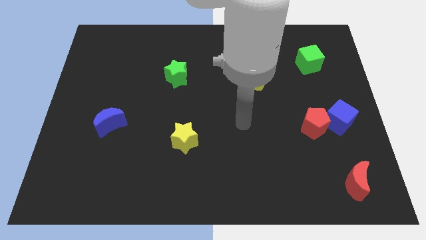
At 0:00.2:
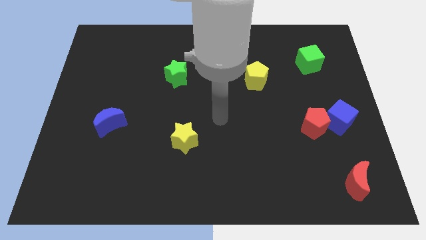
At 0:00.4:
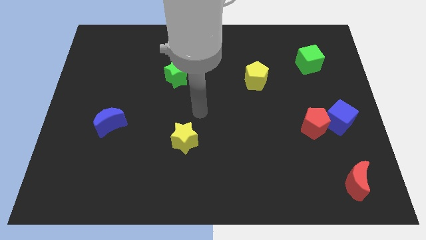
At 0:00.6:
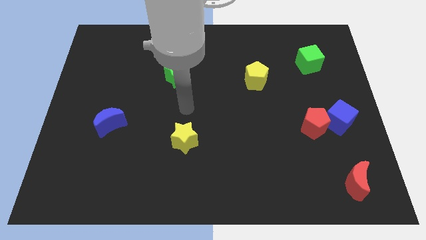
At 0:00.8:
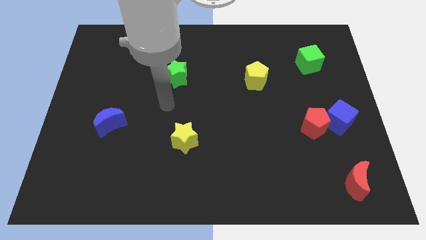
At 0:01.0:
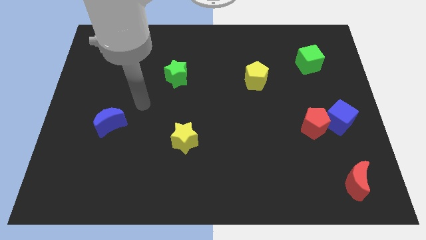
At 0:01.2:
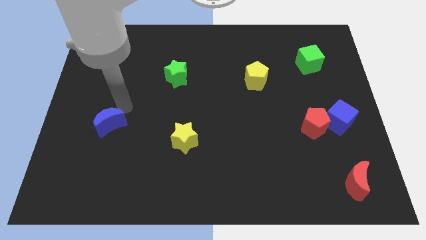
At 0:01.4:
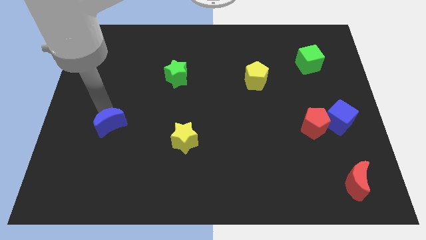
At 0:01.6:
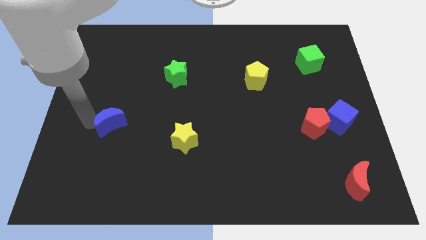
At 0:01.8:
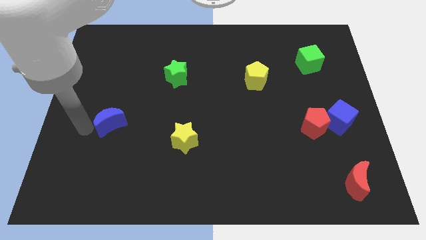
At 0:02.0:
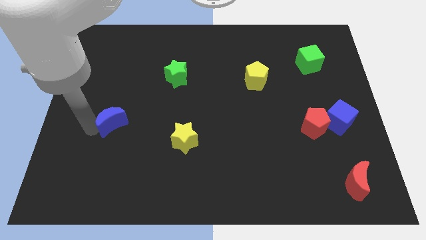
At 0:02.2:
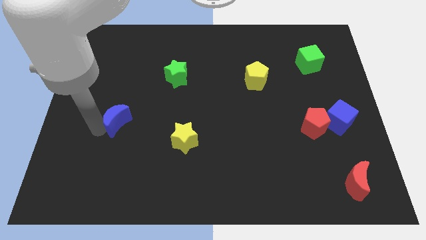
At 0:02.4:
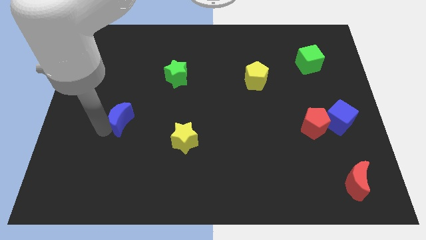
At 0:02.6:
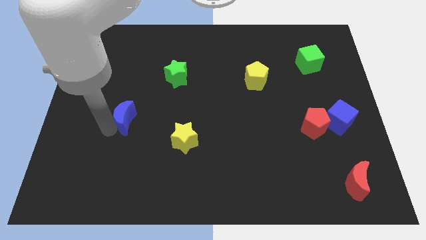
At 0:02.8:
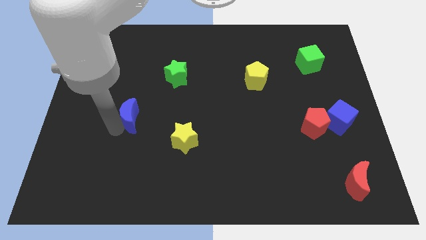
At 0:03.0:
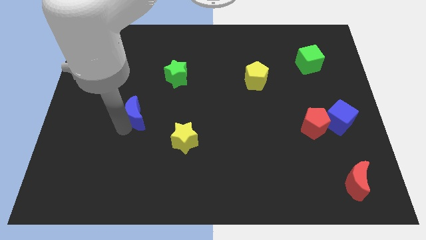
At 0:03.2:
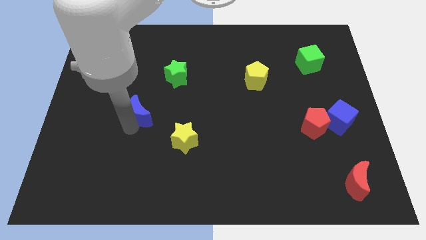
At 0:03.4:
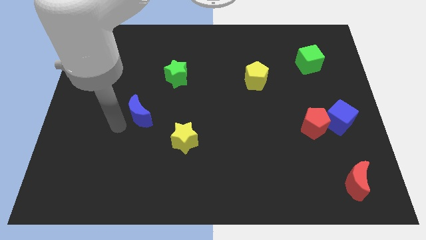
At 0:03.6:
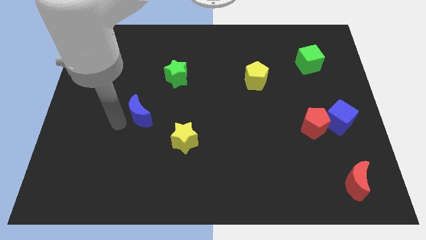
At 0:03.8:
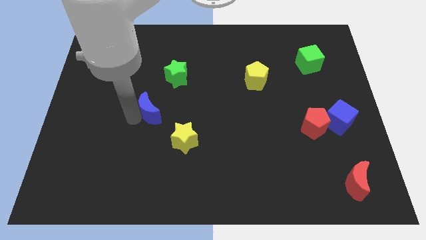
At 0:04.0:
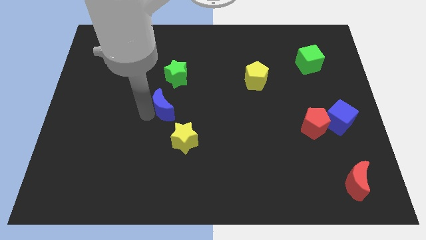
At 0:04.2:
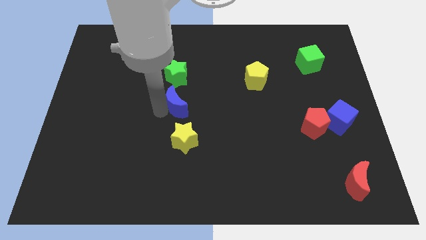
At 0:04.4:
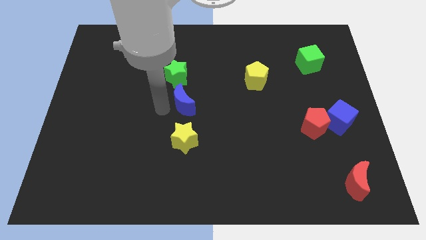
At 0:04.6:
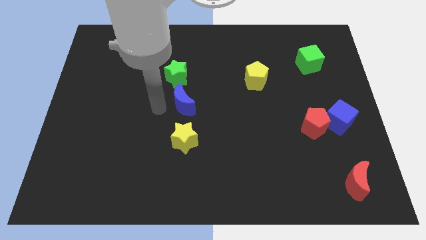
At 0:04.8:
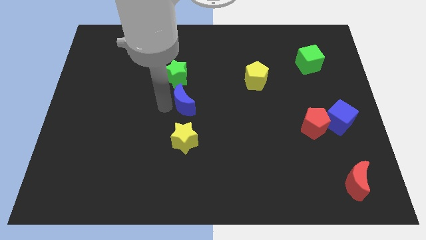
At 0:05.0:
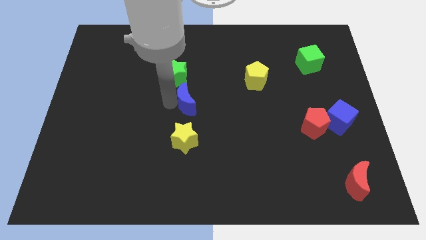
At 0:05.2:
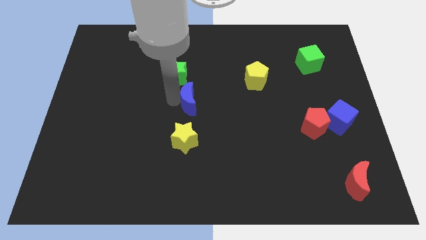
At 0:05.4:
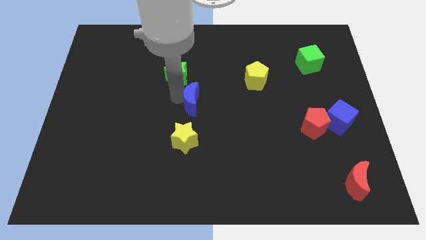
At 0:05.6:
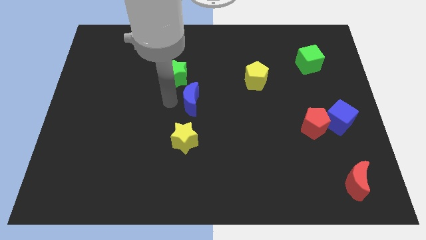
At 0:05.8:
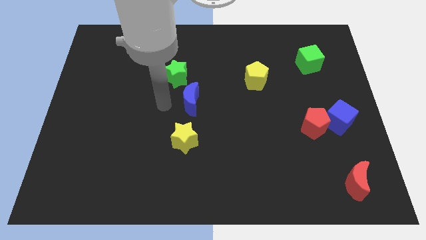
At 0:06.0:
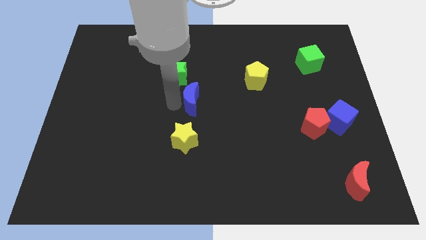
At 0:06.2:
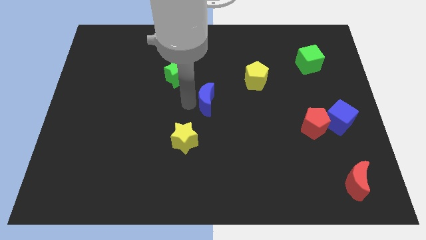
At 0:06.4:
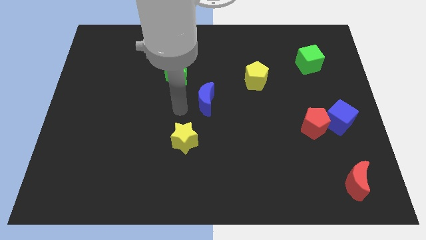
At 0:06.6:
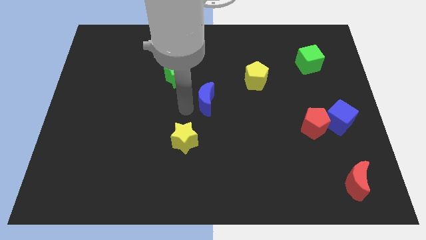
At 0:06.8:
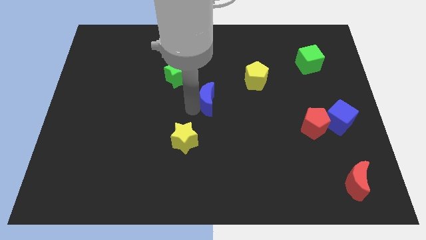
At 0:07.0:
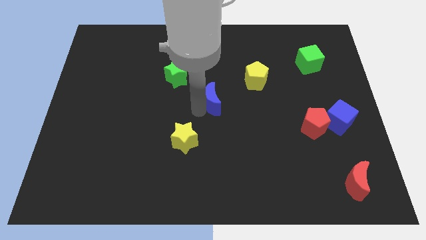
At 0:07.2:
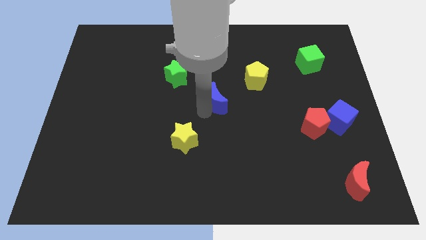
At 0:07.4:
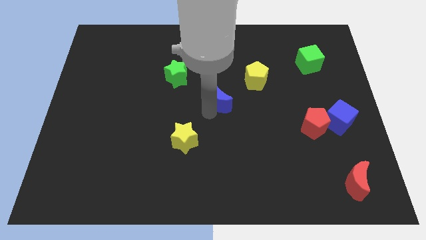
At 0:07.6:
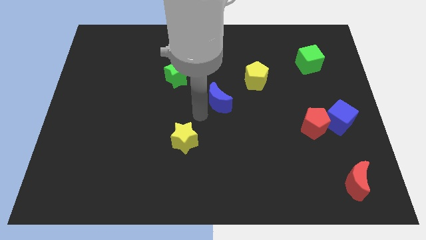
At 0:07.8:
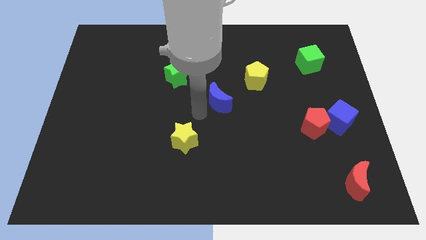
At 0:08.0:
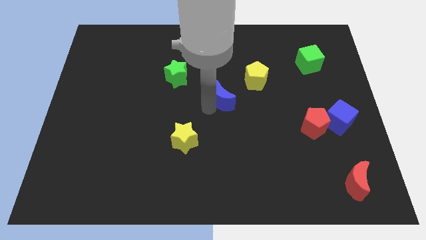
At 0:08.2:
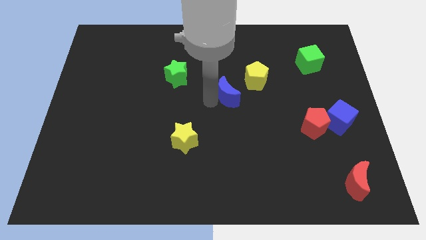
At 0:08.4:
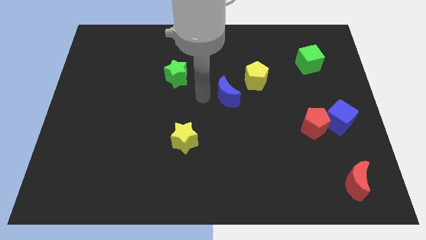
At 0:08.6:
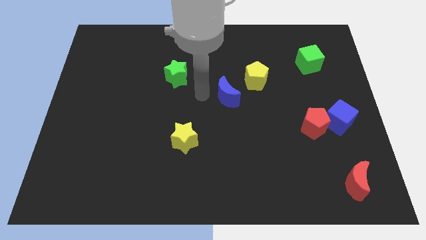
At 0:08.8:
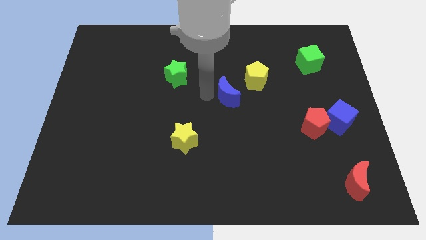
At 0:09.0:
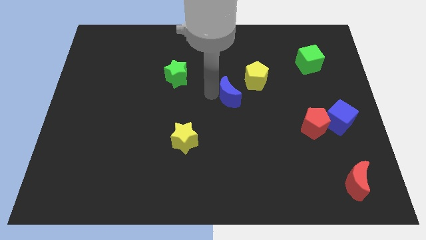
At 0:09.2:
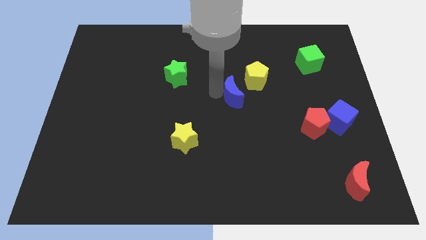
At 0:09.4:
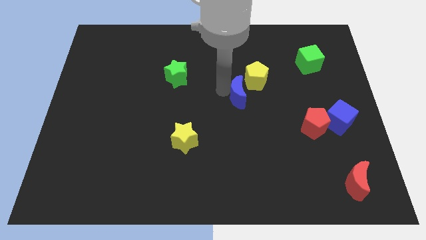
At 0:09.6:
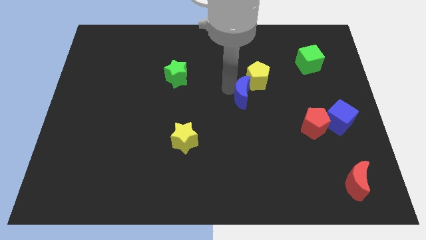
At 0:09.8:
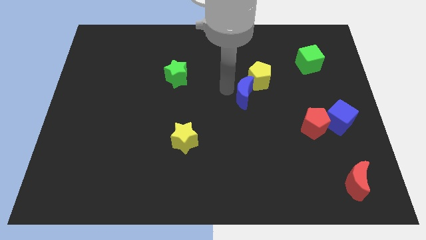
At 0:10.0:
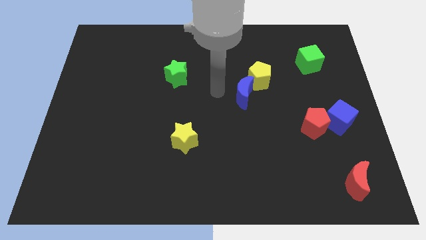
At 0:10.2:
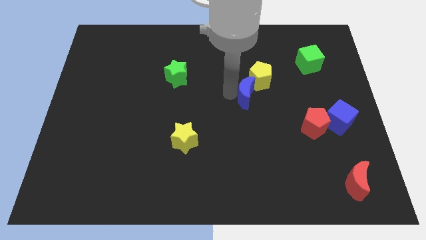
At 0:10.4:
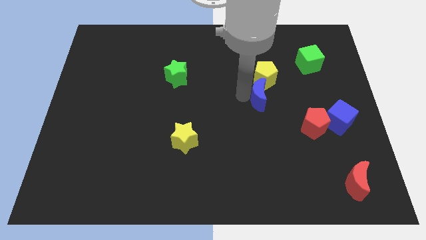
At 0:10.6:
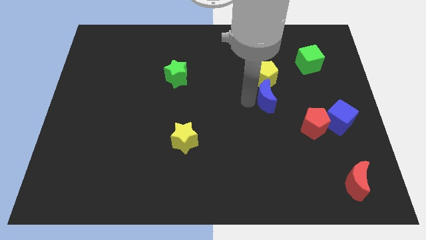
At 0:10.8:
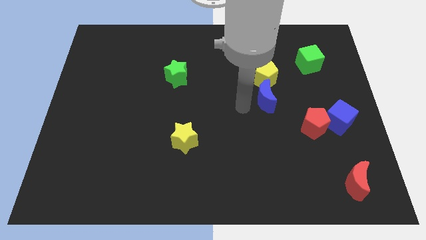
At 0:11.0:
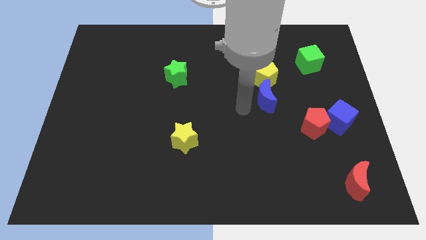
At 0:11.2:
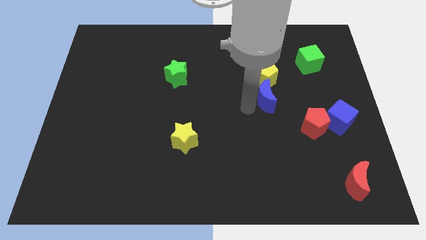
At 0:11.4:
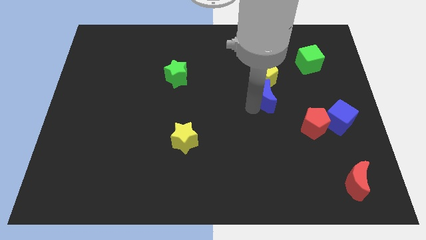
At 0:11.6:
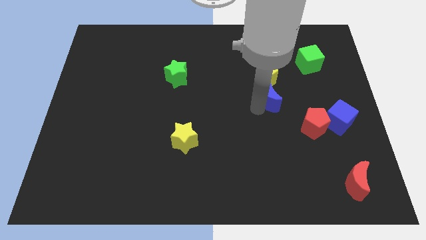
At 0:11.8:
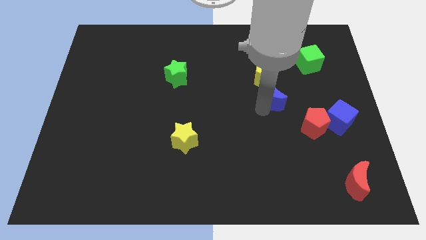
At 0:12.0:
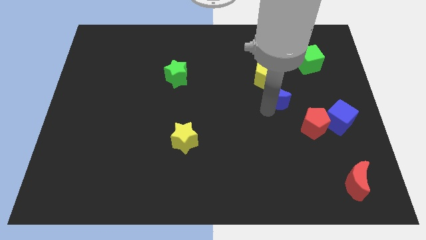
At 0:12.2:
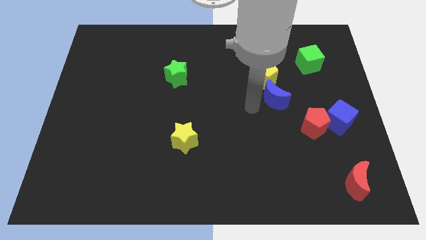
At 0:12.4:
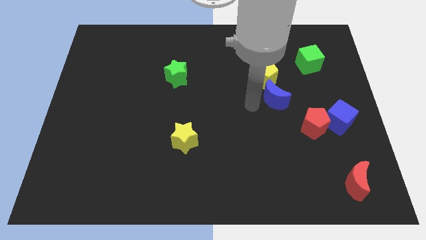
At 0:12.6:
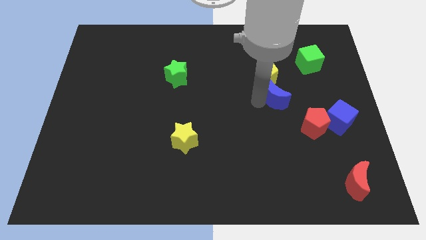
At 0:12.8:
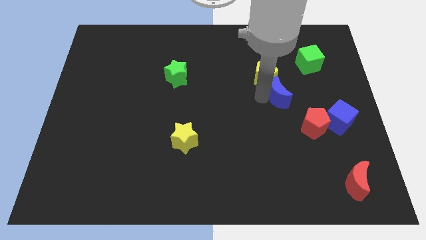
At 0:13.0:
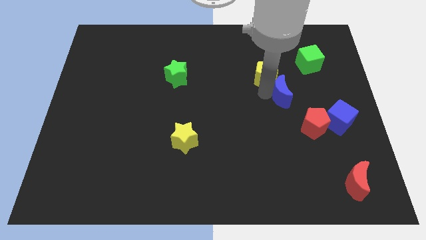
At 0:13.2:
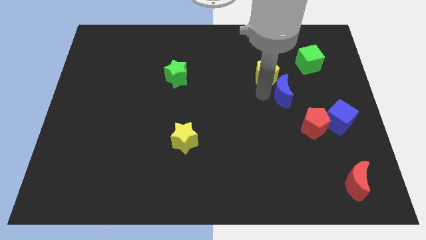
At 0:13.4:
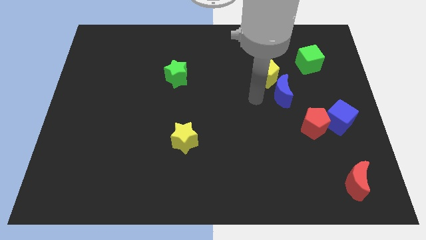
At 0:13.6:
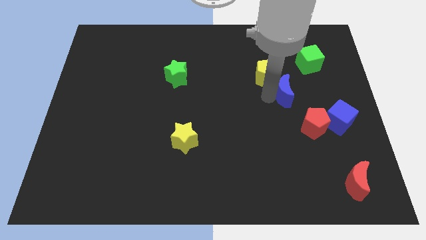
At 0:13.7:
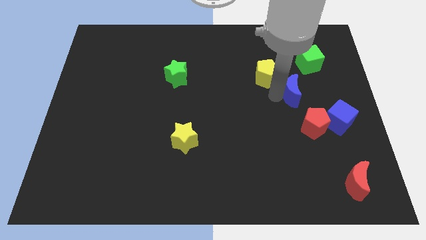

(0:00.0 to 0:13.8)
put the blue moon above the red pentagon

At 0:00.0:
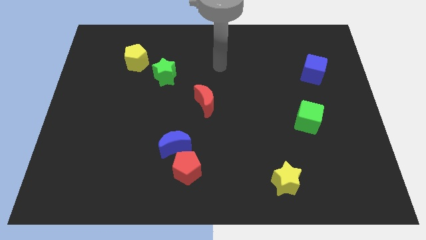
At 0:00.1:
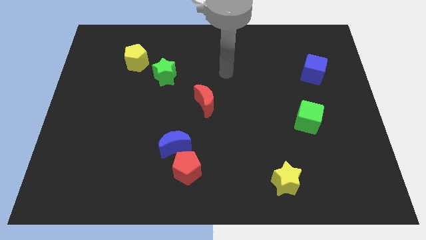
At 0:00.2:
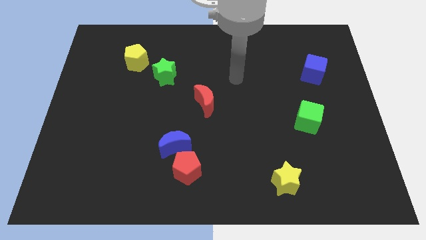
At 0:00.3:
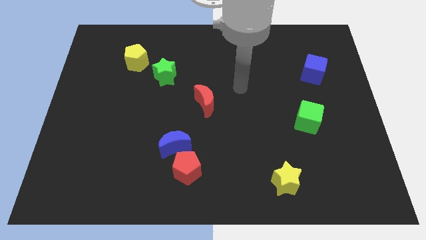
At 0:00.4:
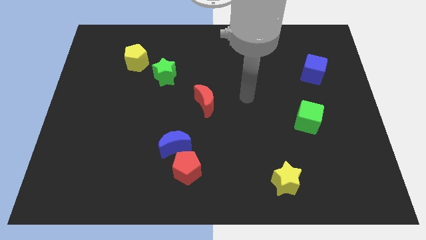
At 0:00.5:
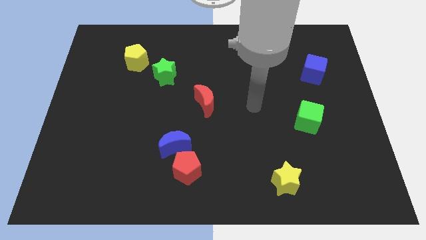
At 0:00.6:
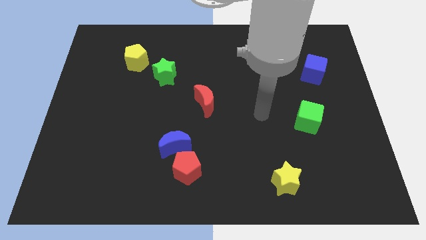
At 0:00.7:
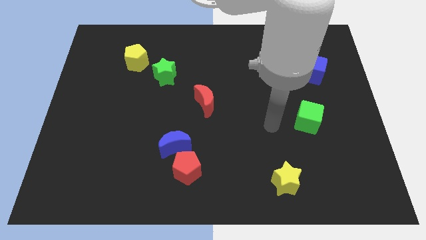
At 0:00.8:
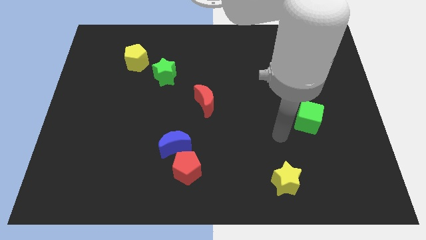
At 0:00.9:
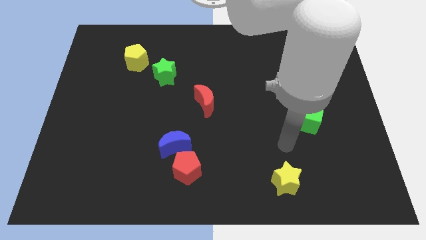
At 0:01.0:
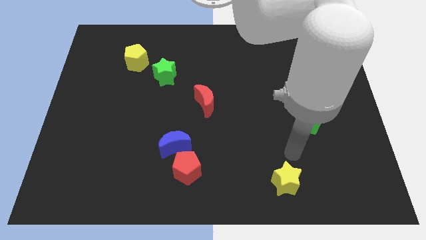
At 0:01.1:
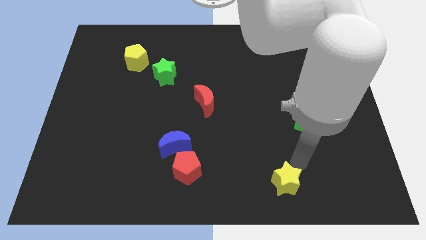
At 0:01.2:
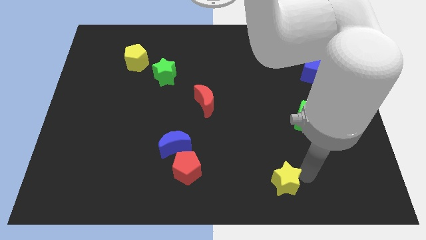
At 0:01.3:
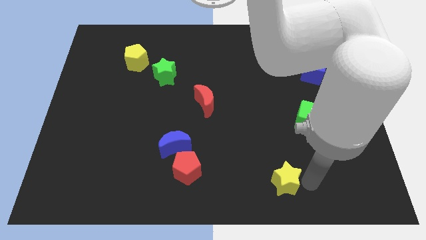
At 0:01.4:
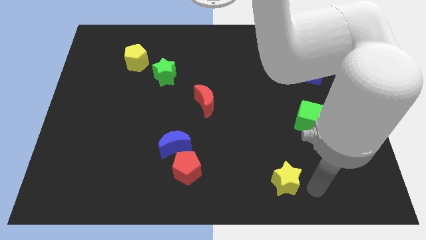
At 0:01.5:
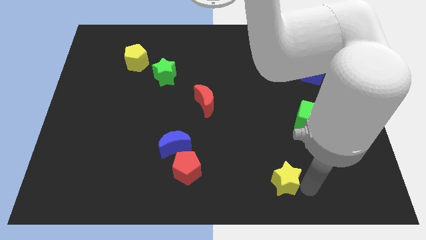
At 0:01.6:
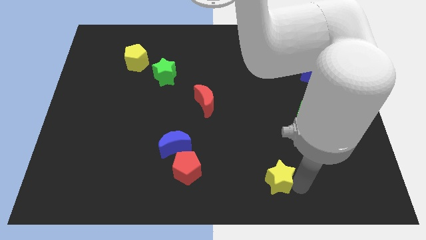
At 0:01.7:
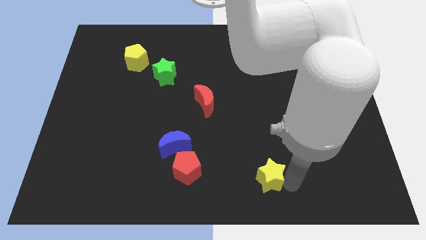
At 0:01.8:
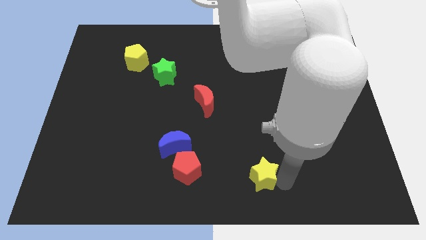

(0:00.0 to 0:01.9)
move the yellow star to the right of the red pentagon
